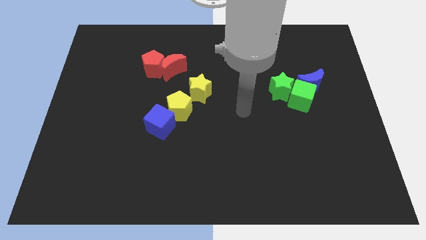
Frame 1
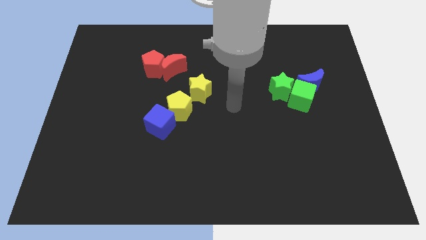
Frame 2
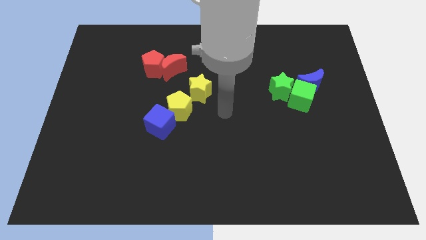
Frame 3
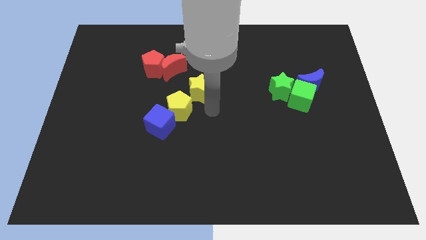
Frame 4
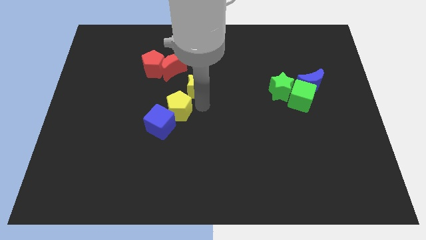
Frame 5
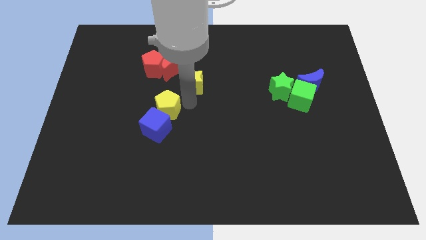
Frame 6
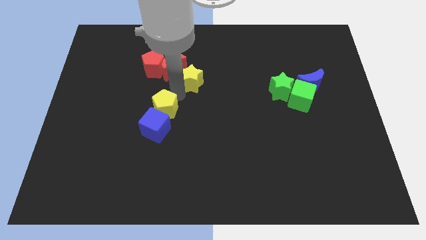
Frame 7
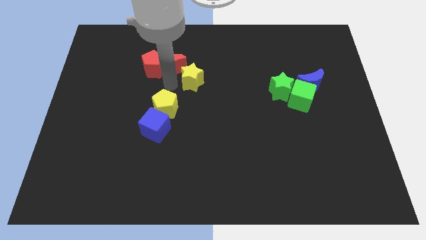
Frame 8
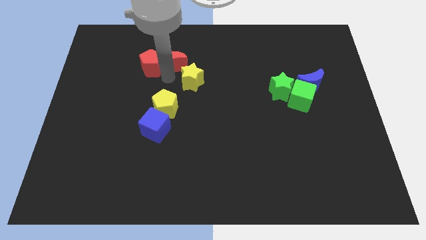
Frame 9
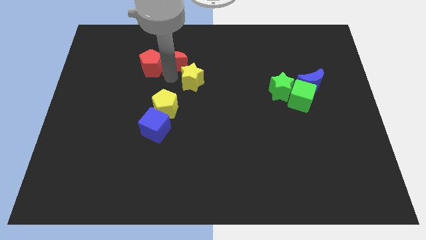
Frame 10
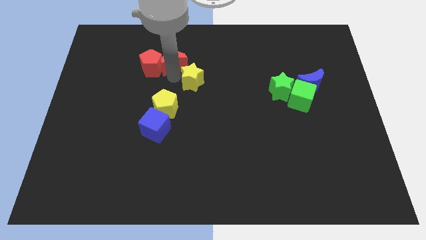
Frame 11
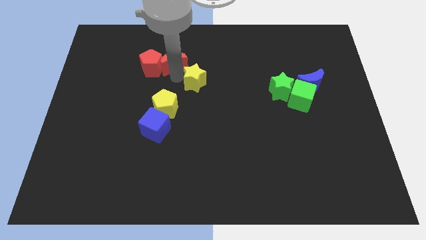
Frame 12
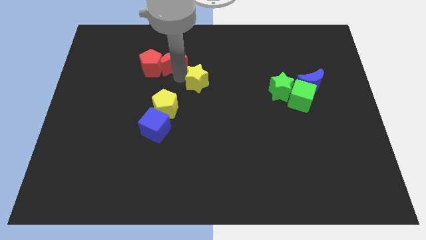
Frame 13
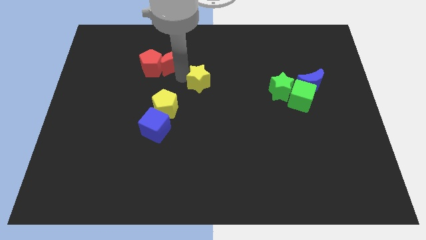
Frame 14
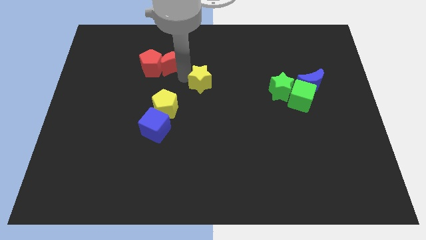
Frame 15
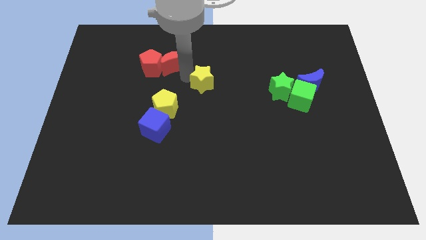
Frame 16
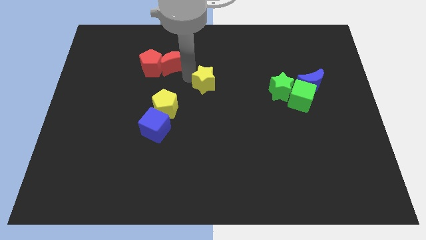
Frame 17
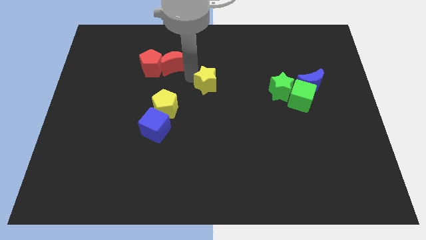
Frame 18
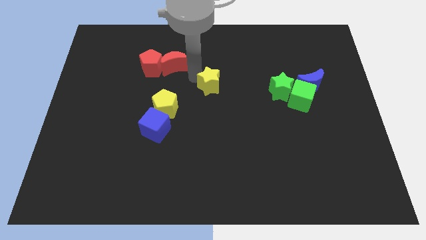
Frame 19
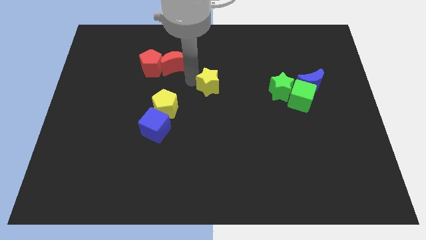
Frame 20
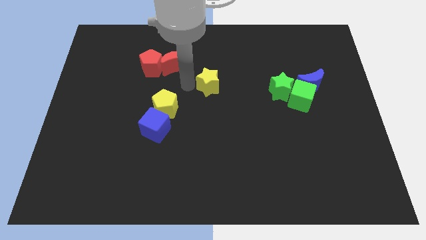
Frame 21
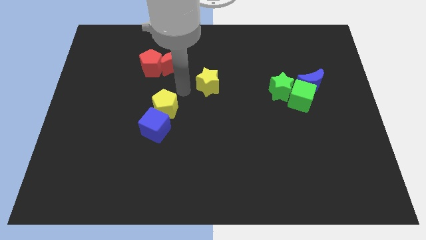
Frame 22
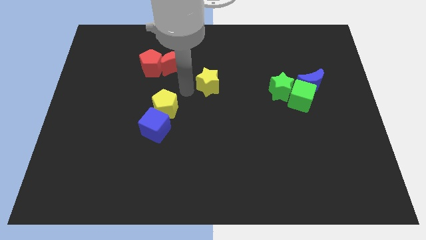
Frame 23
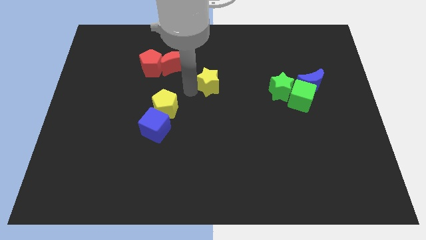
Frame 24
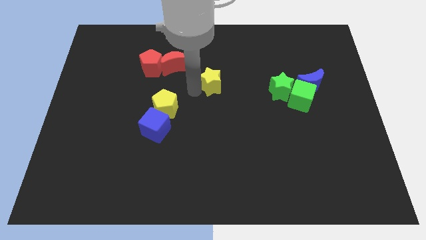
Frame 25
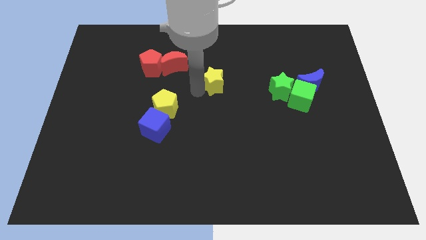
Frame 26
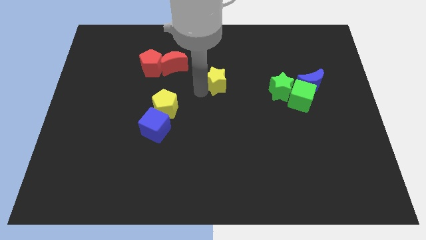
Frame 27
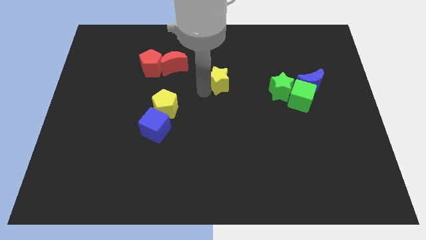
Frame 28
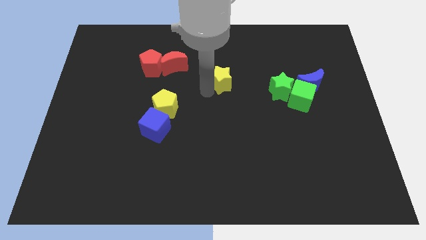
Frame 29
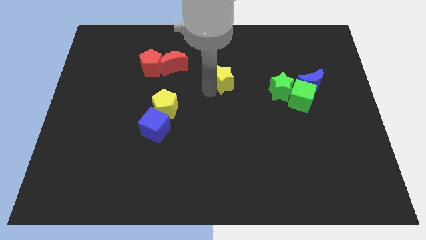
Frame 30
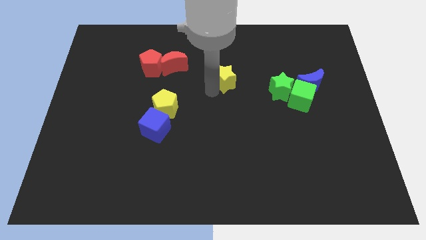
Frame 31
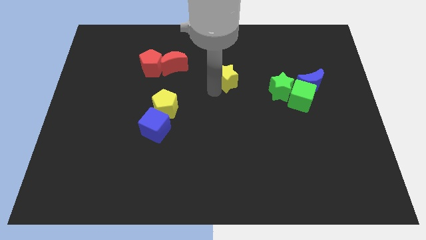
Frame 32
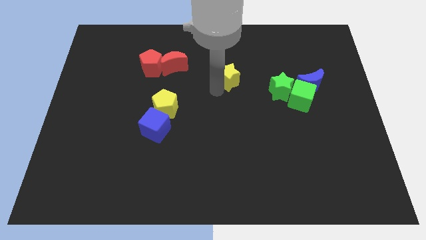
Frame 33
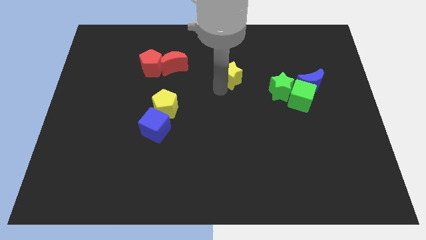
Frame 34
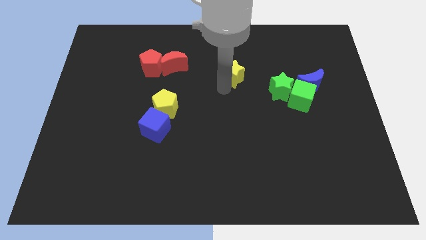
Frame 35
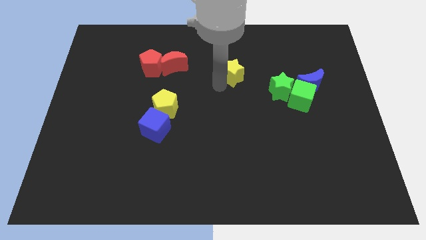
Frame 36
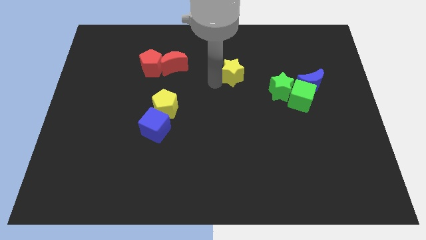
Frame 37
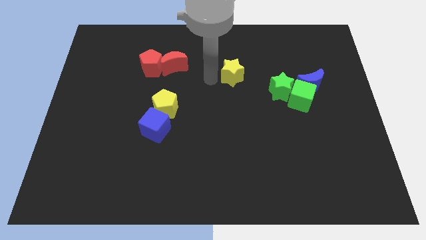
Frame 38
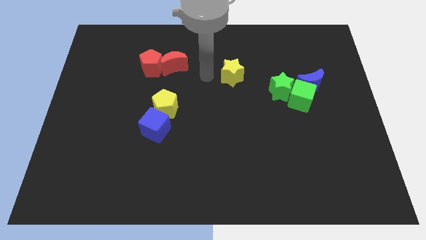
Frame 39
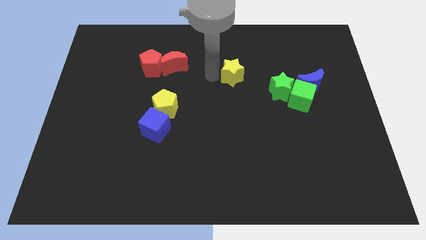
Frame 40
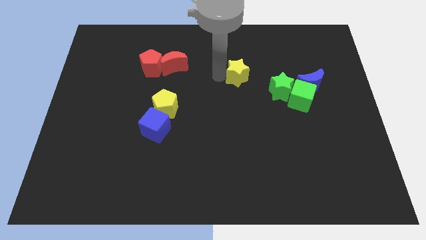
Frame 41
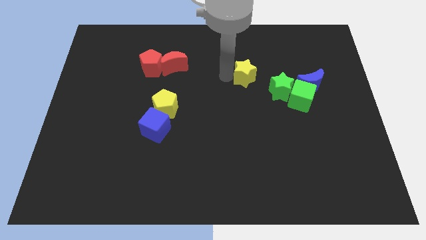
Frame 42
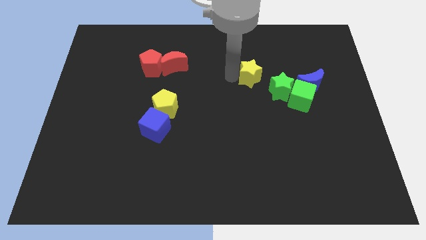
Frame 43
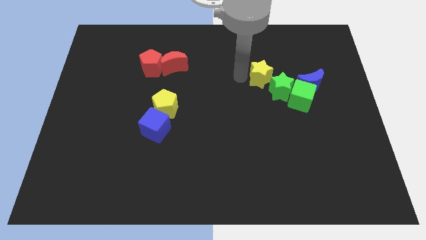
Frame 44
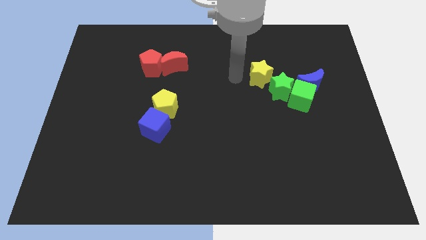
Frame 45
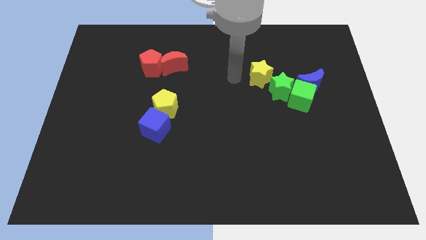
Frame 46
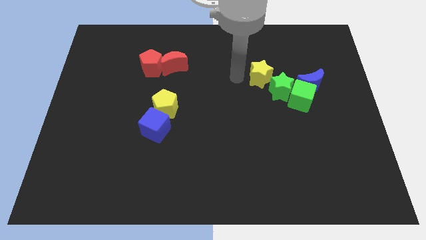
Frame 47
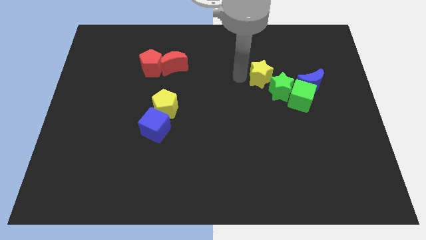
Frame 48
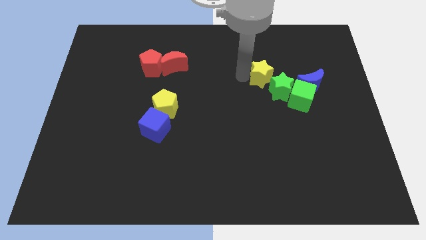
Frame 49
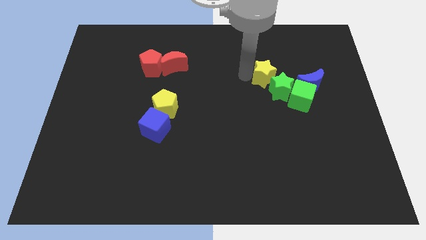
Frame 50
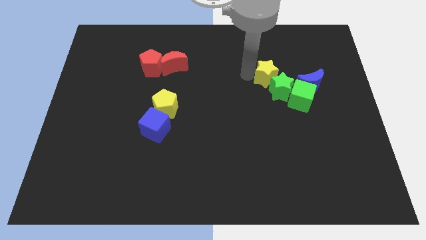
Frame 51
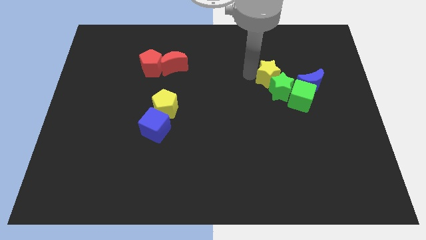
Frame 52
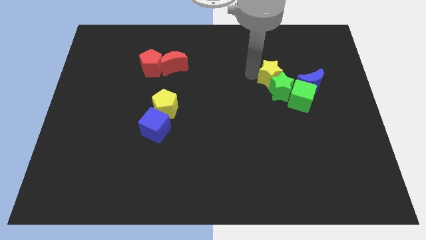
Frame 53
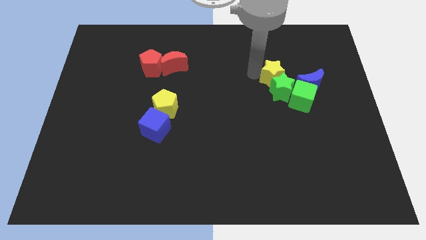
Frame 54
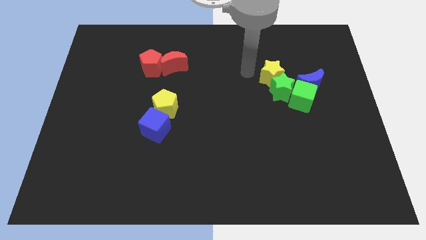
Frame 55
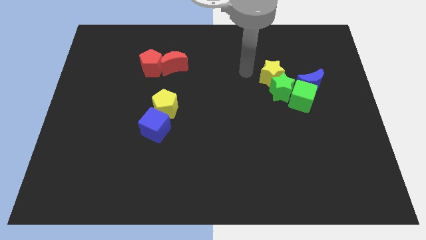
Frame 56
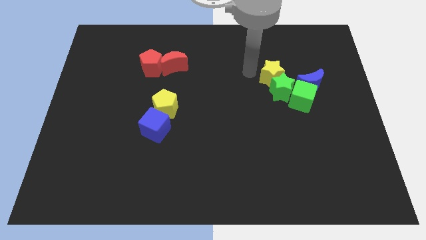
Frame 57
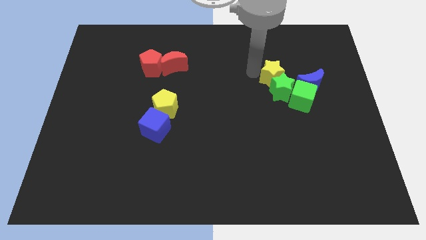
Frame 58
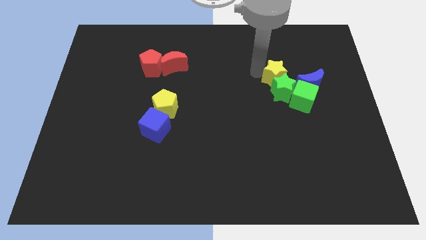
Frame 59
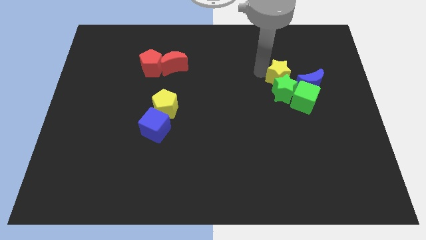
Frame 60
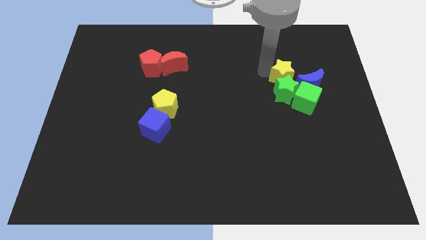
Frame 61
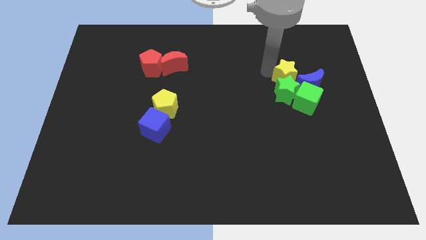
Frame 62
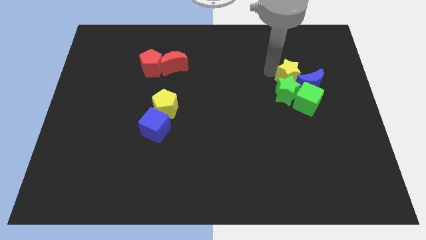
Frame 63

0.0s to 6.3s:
move the yellow star next to the blue moon

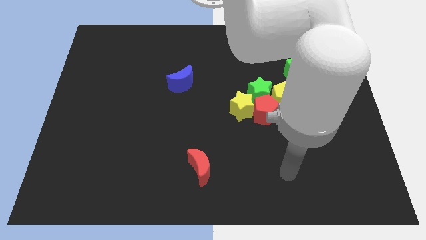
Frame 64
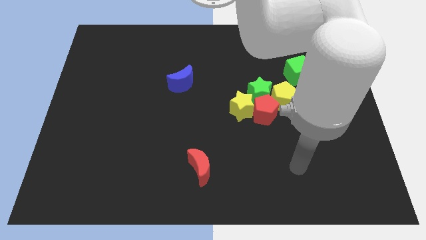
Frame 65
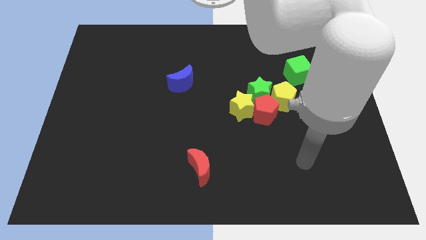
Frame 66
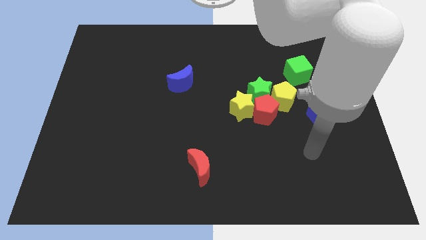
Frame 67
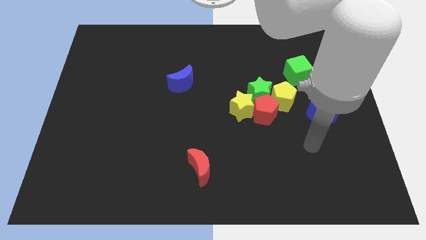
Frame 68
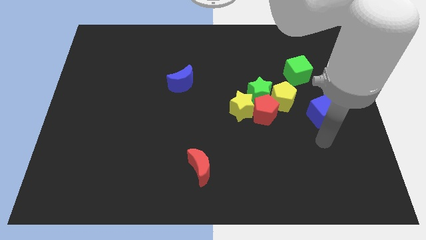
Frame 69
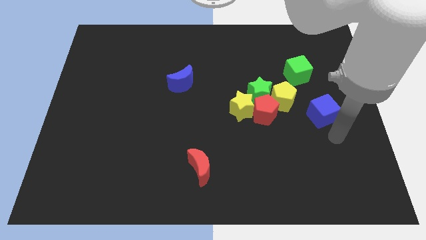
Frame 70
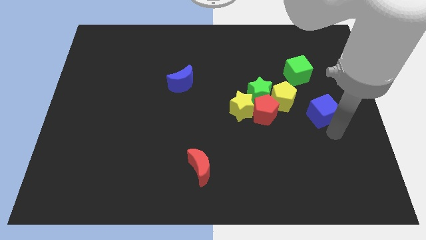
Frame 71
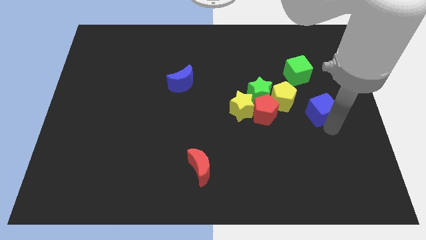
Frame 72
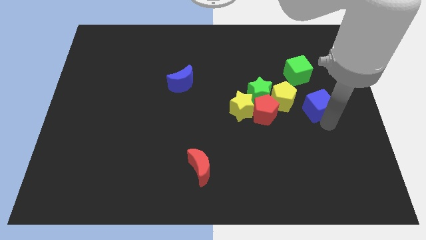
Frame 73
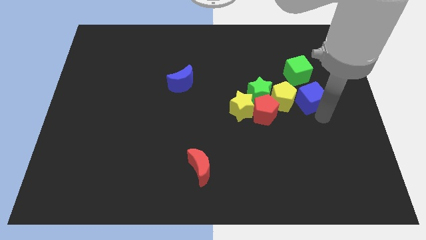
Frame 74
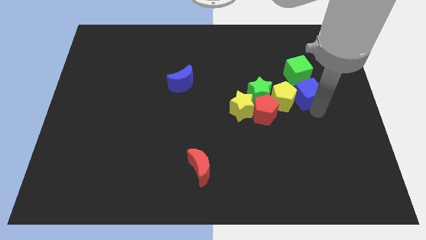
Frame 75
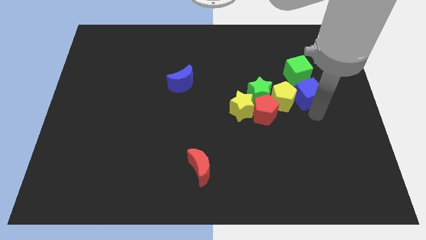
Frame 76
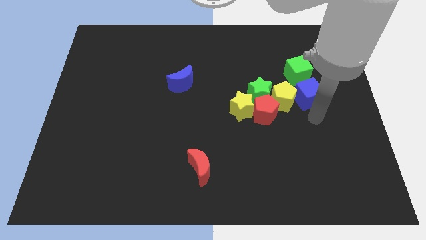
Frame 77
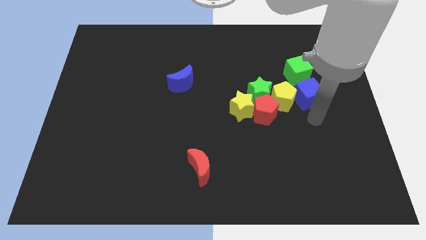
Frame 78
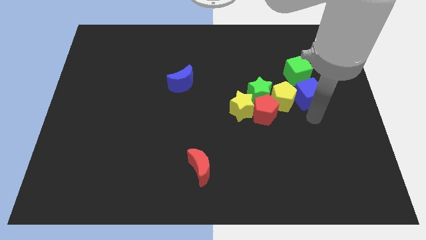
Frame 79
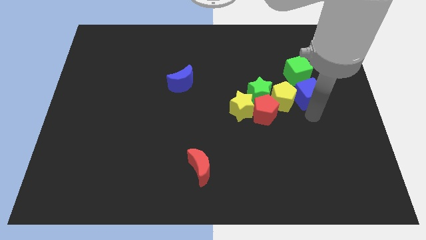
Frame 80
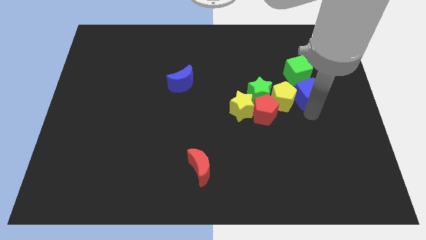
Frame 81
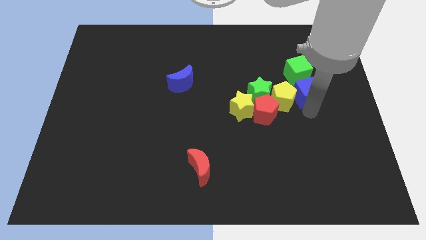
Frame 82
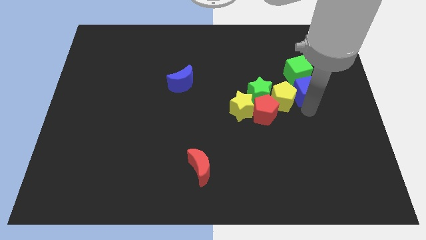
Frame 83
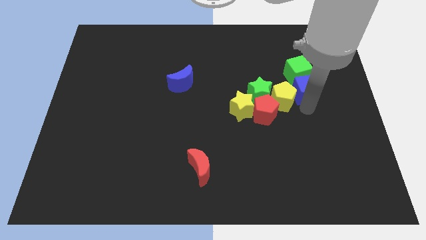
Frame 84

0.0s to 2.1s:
push the blue cube towards the green cube
